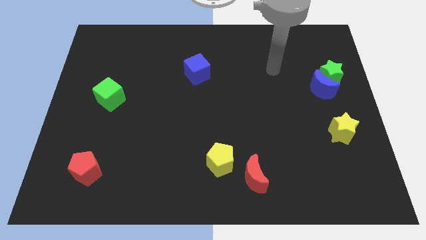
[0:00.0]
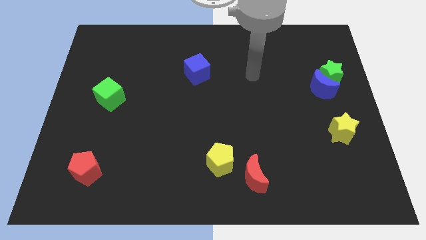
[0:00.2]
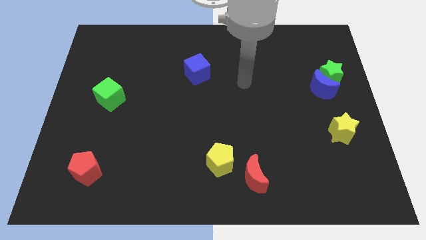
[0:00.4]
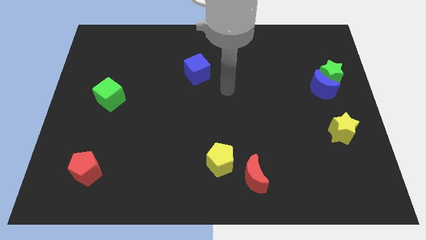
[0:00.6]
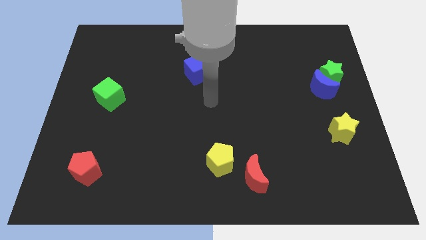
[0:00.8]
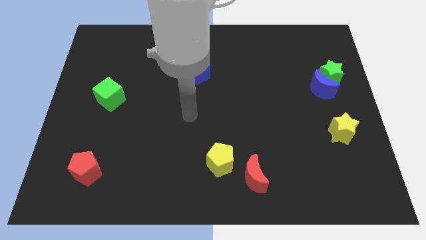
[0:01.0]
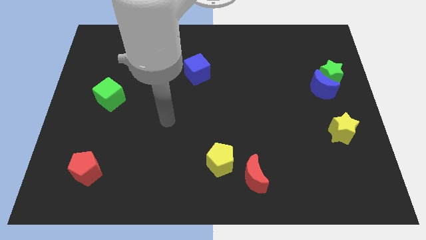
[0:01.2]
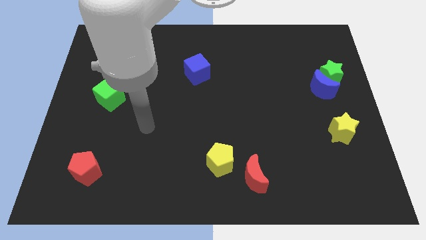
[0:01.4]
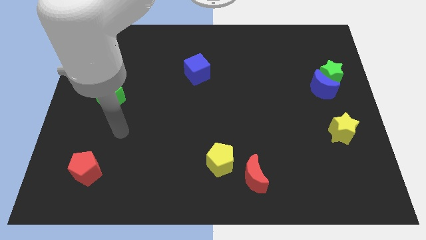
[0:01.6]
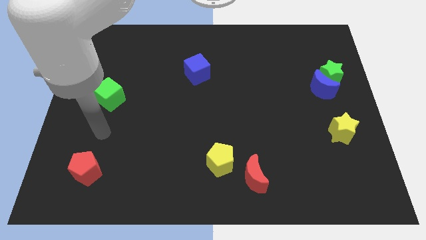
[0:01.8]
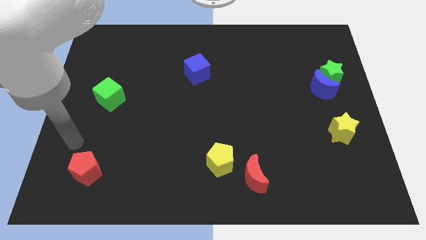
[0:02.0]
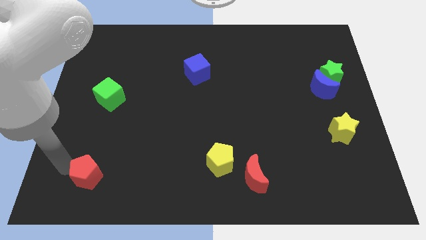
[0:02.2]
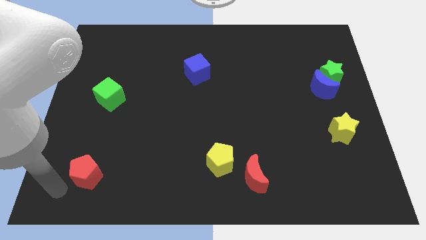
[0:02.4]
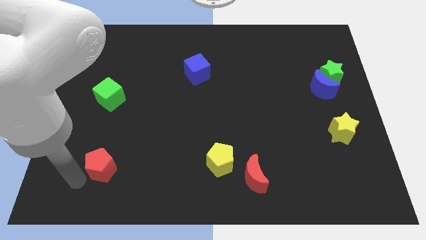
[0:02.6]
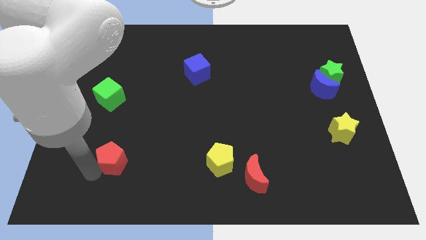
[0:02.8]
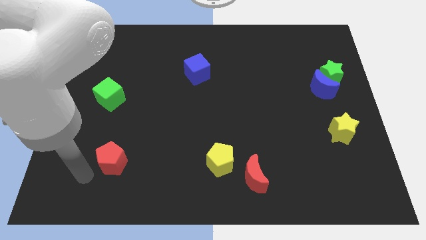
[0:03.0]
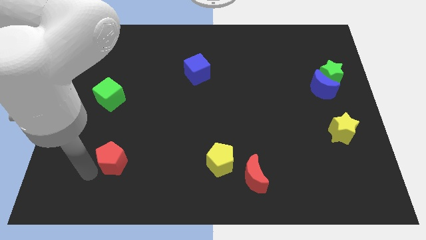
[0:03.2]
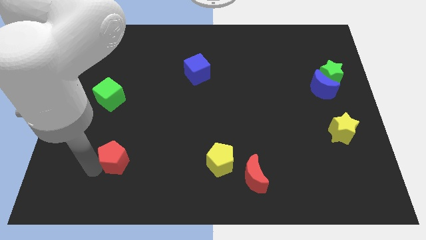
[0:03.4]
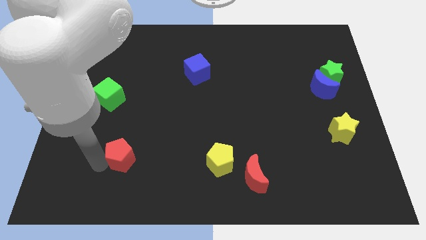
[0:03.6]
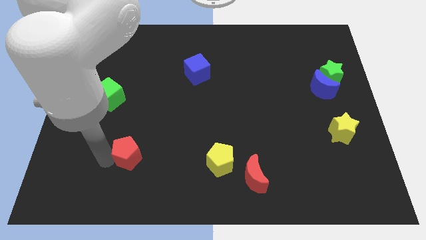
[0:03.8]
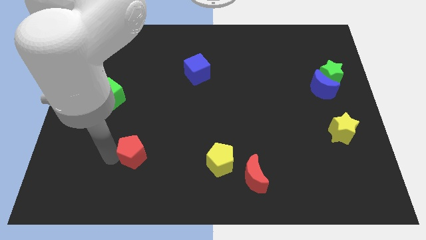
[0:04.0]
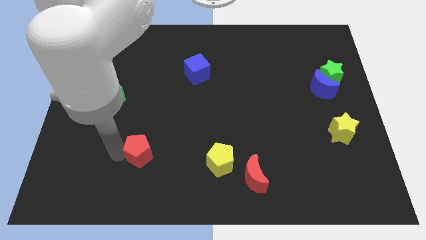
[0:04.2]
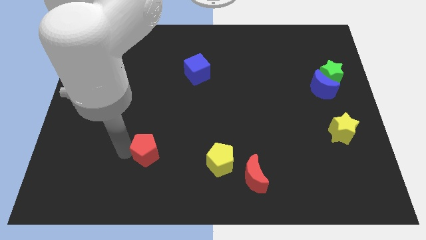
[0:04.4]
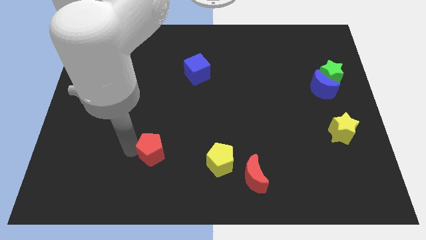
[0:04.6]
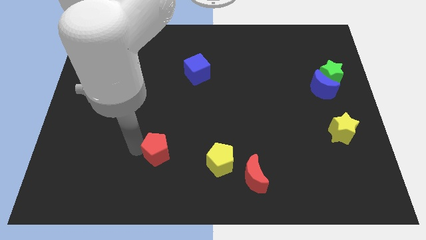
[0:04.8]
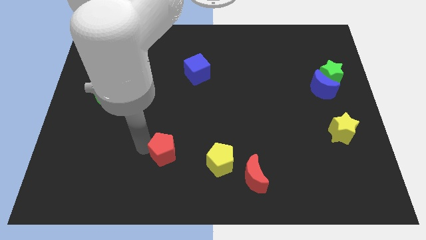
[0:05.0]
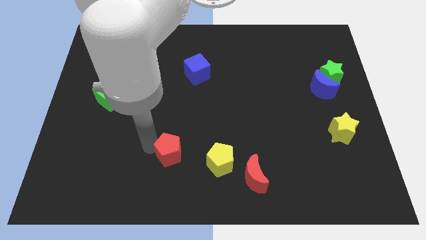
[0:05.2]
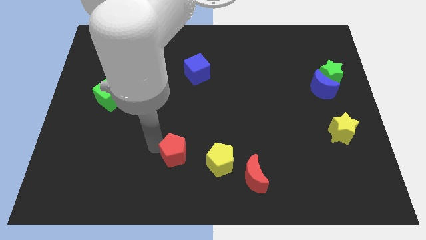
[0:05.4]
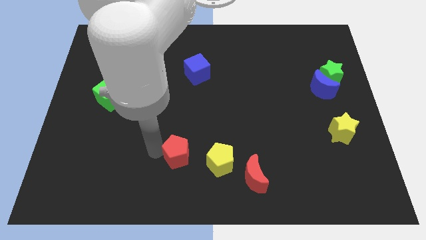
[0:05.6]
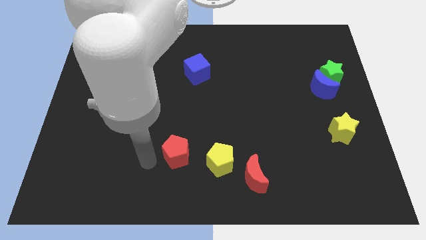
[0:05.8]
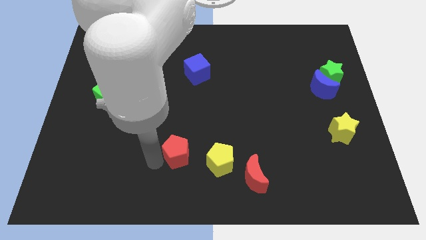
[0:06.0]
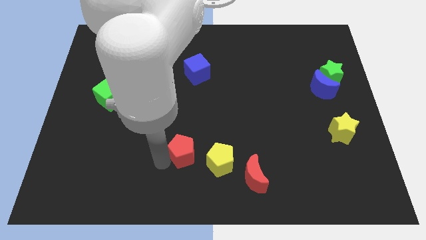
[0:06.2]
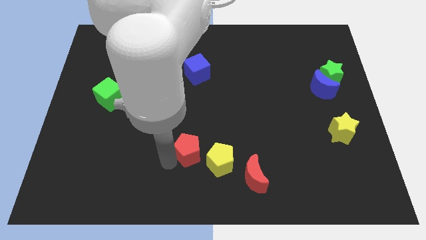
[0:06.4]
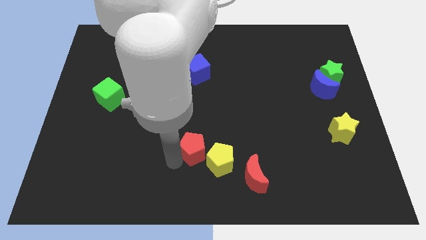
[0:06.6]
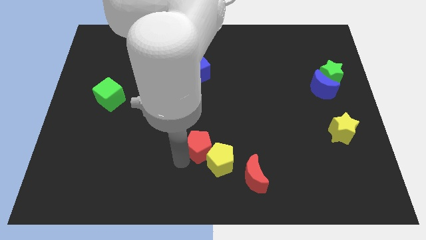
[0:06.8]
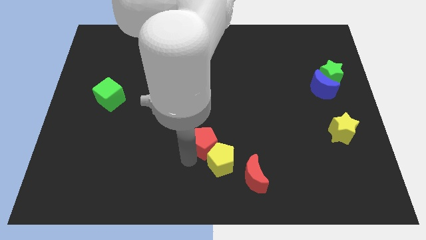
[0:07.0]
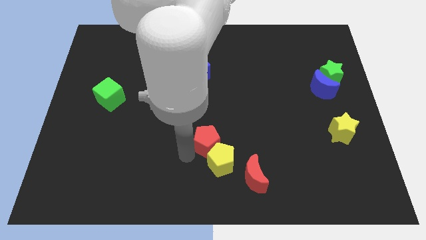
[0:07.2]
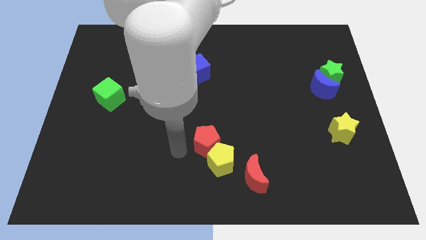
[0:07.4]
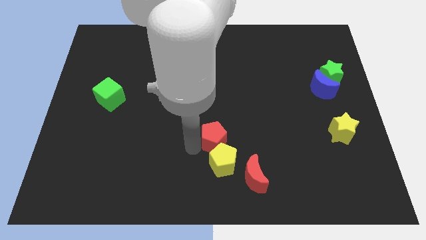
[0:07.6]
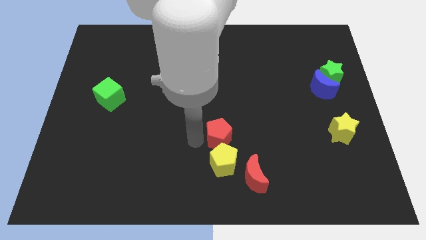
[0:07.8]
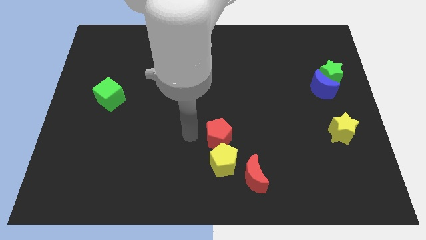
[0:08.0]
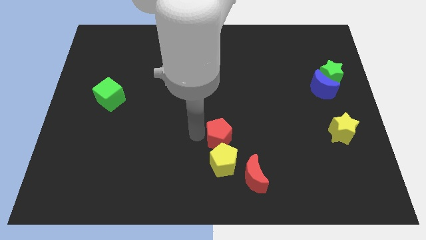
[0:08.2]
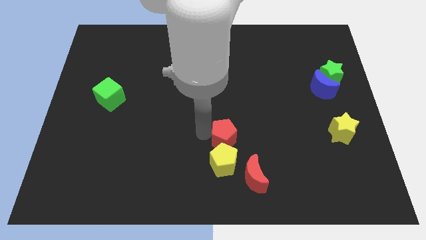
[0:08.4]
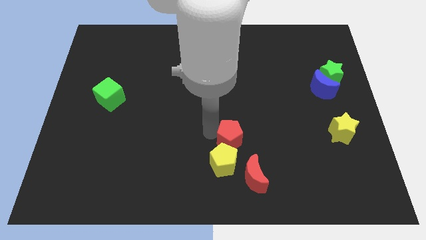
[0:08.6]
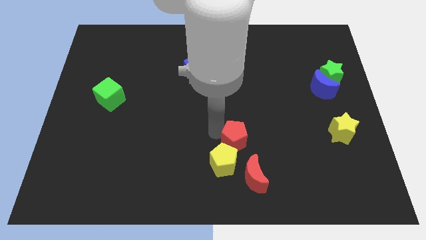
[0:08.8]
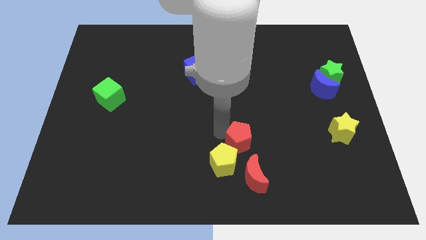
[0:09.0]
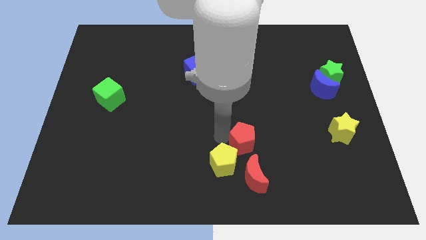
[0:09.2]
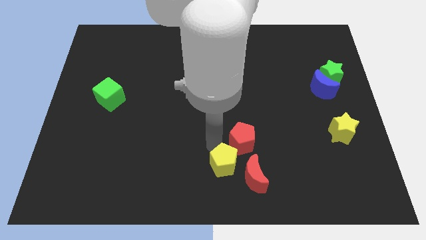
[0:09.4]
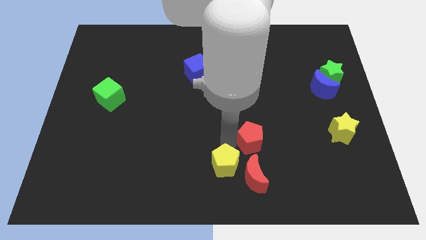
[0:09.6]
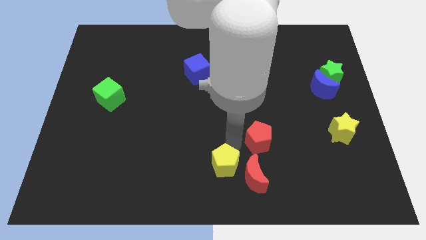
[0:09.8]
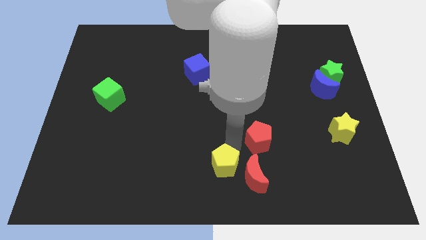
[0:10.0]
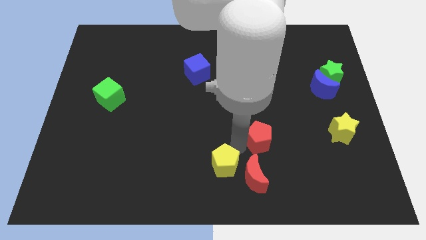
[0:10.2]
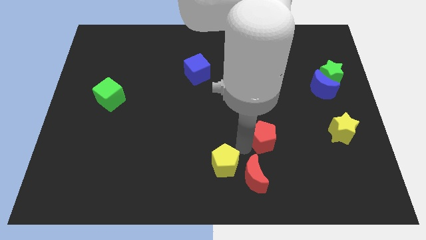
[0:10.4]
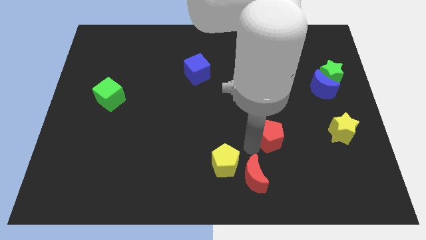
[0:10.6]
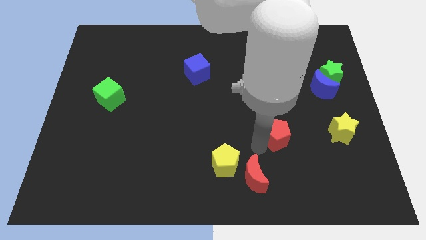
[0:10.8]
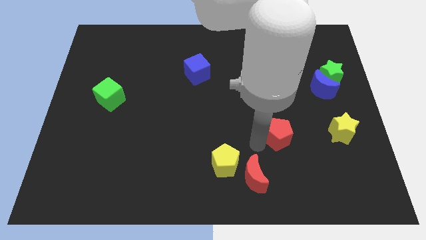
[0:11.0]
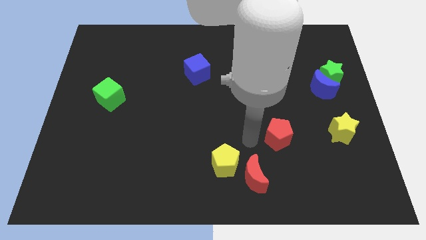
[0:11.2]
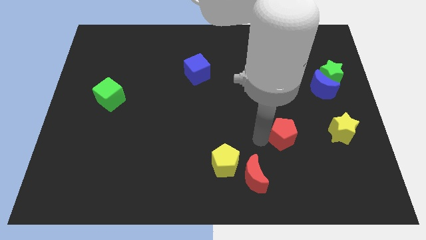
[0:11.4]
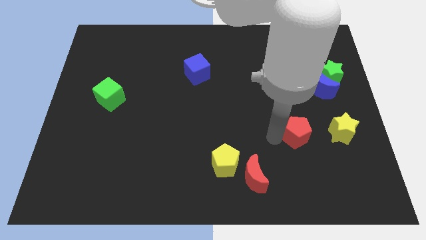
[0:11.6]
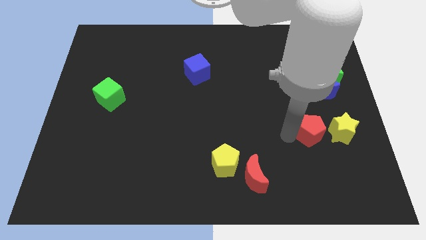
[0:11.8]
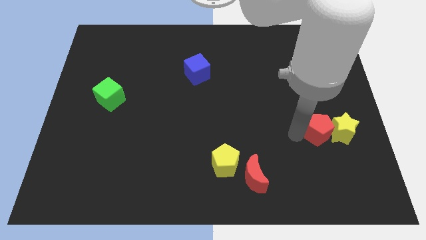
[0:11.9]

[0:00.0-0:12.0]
push the red pentagon next to the yellow star

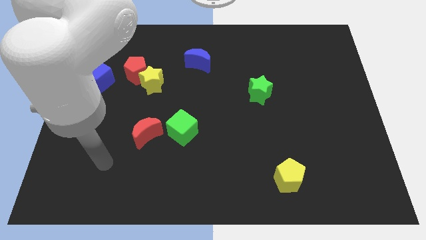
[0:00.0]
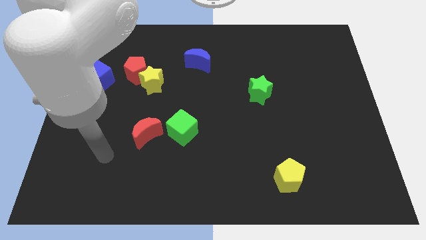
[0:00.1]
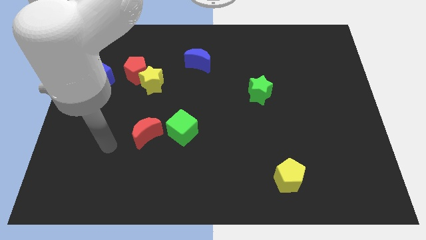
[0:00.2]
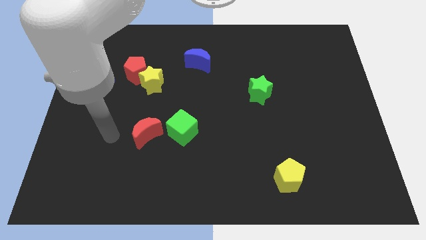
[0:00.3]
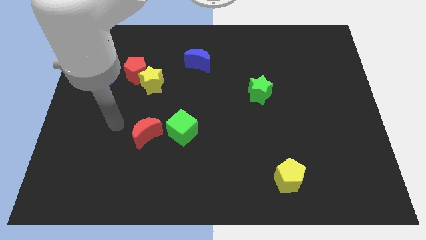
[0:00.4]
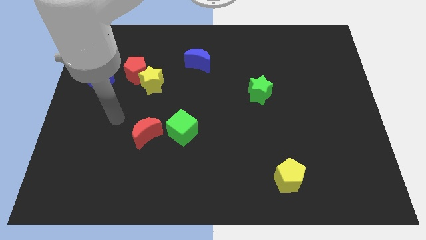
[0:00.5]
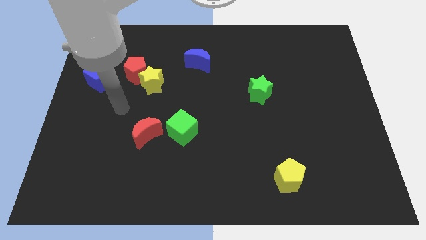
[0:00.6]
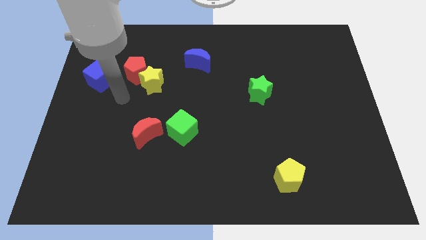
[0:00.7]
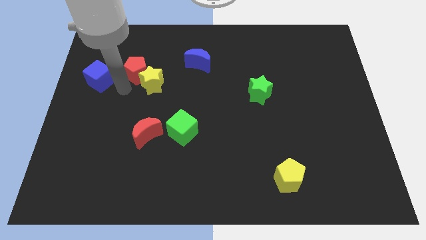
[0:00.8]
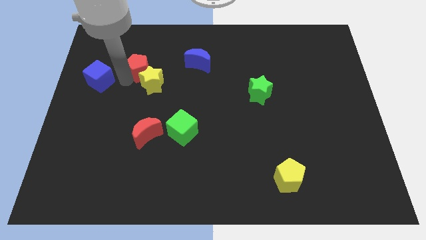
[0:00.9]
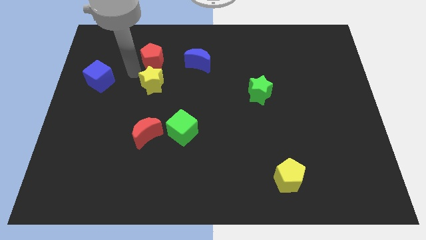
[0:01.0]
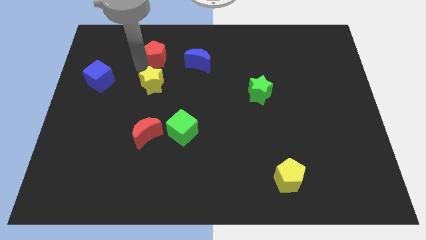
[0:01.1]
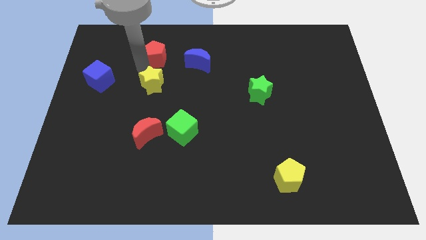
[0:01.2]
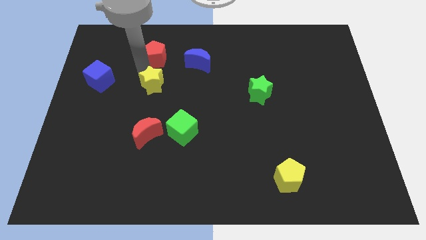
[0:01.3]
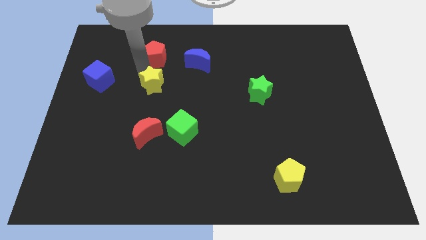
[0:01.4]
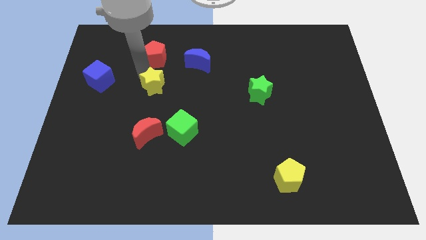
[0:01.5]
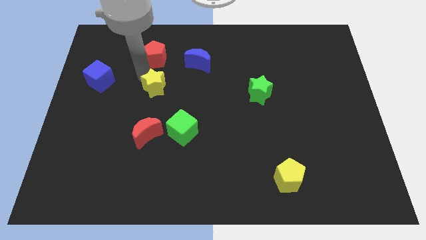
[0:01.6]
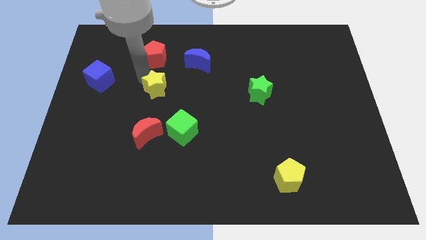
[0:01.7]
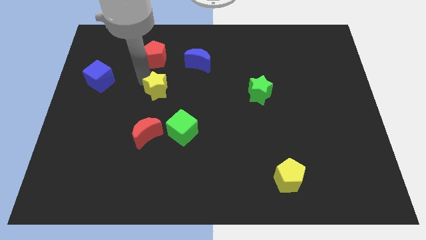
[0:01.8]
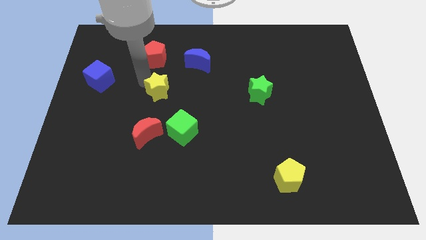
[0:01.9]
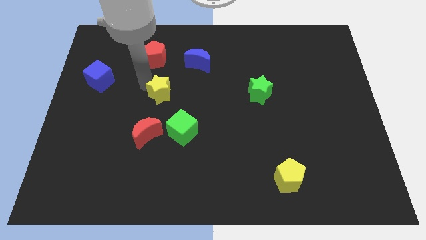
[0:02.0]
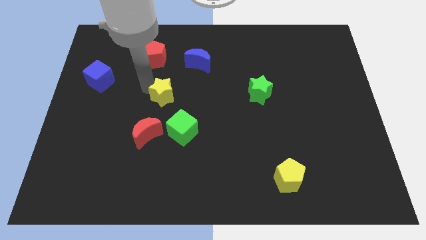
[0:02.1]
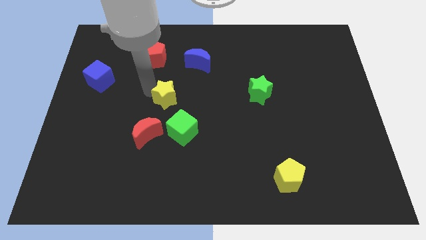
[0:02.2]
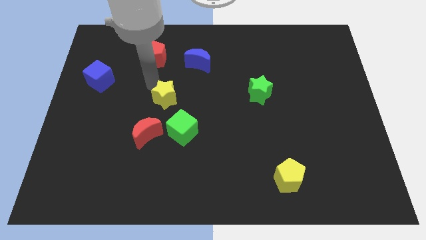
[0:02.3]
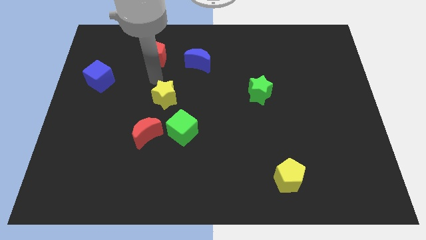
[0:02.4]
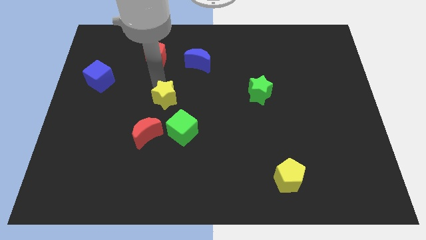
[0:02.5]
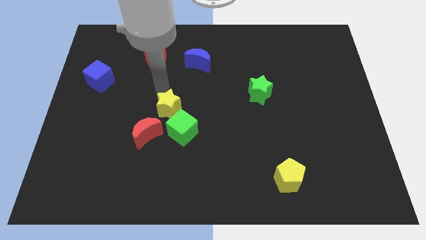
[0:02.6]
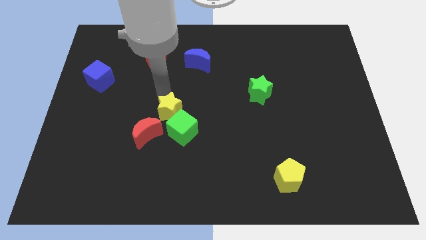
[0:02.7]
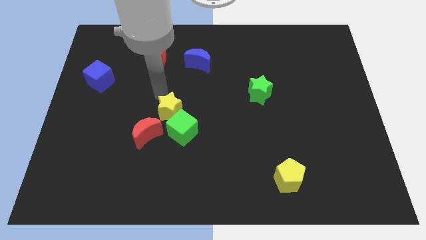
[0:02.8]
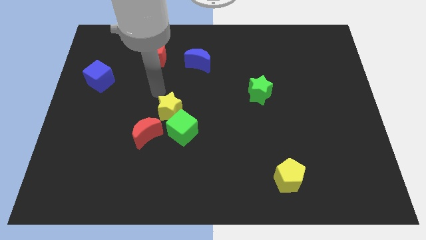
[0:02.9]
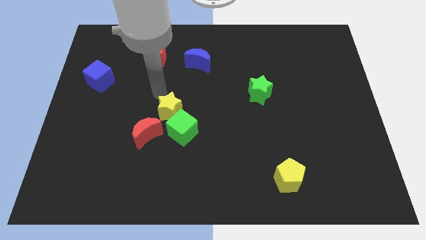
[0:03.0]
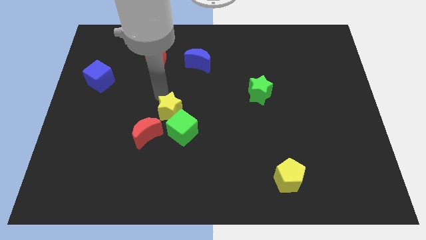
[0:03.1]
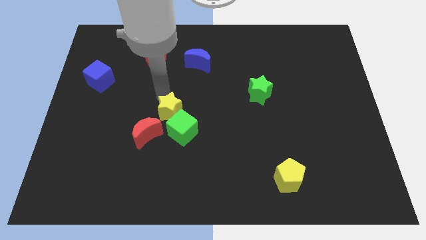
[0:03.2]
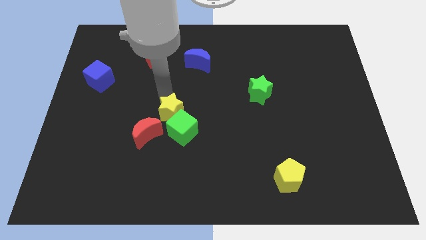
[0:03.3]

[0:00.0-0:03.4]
slide the yellow star to the green cube
